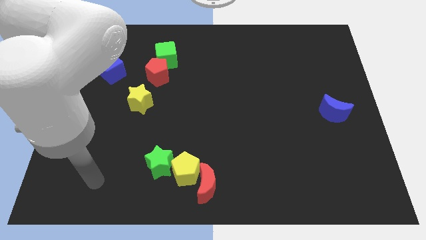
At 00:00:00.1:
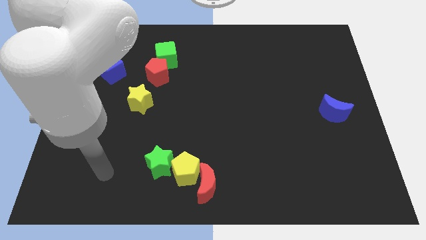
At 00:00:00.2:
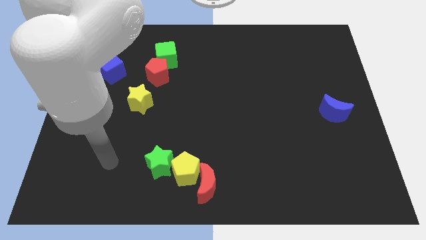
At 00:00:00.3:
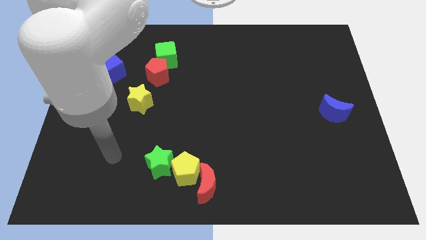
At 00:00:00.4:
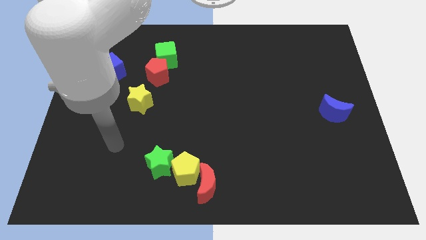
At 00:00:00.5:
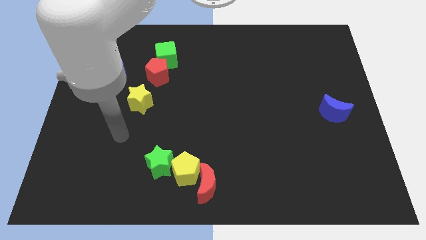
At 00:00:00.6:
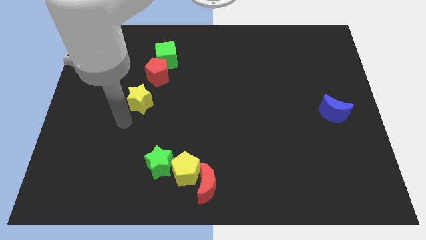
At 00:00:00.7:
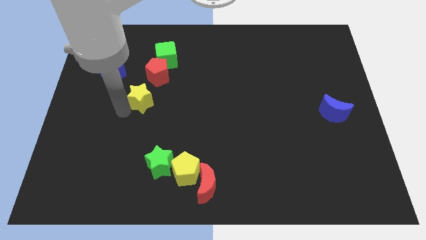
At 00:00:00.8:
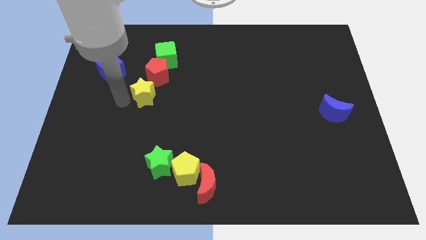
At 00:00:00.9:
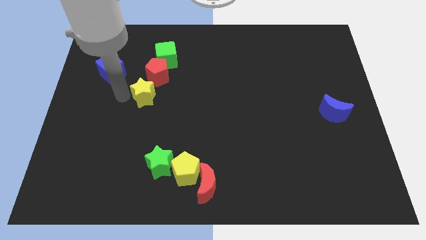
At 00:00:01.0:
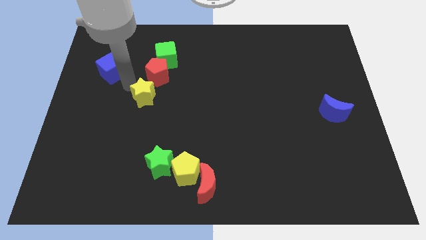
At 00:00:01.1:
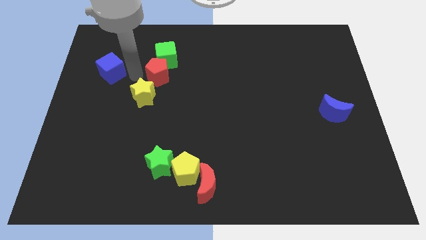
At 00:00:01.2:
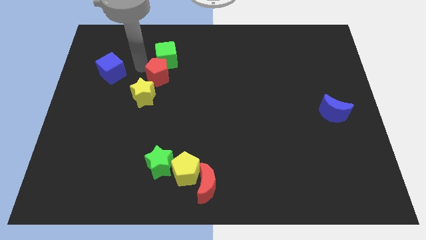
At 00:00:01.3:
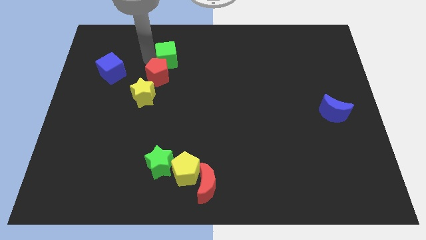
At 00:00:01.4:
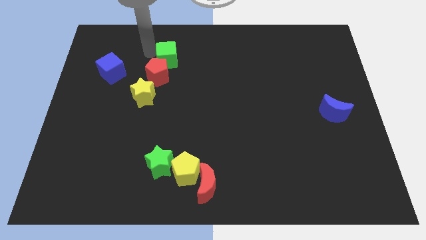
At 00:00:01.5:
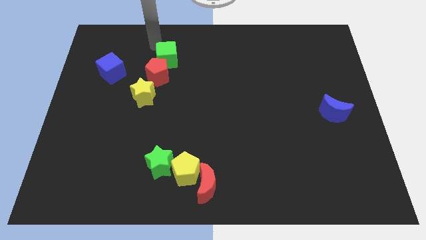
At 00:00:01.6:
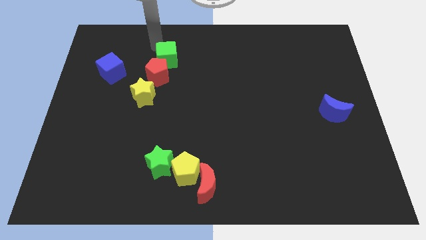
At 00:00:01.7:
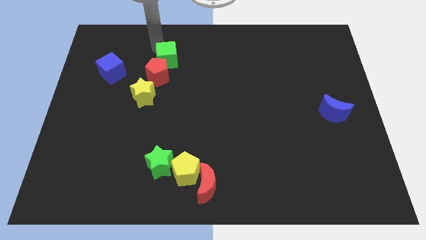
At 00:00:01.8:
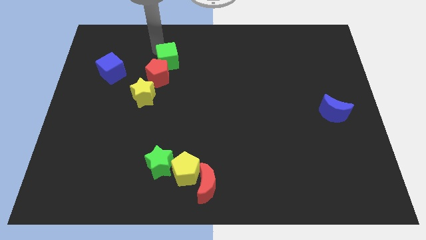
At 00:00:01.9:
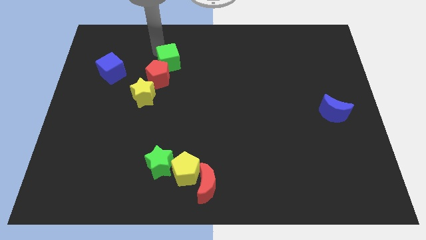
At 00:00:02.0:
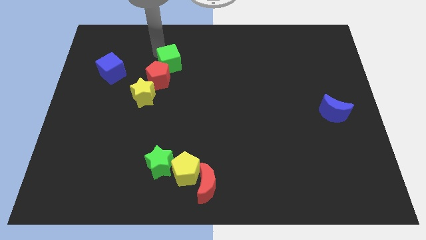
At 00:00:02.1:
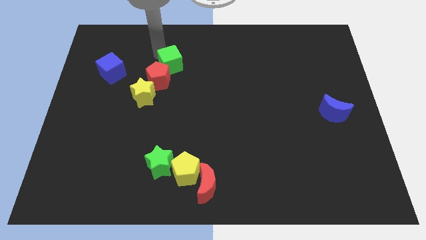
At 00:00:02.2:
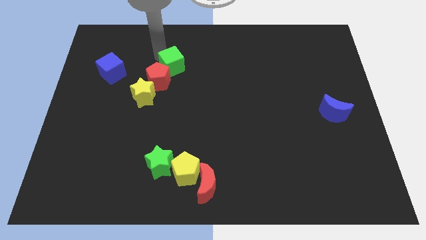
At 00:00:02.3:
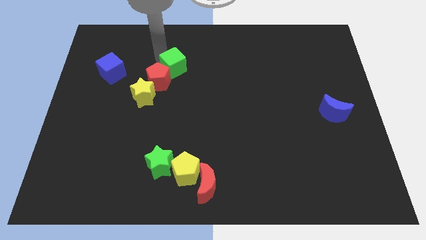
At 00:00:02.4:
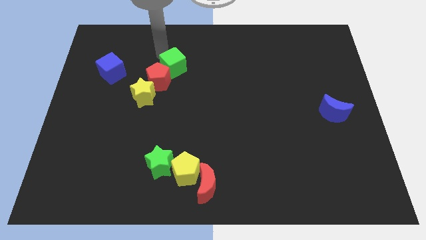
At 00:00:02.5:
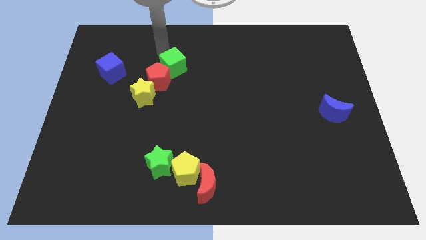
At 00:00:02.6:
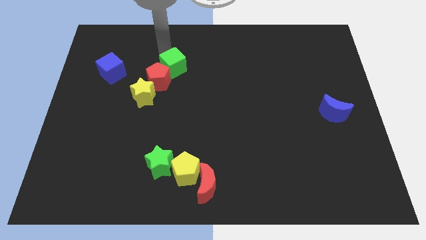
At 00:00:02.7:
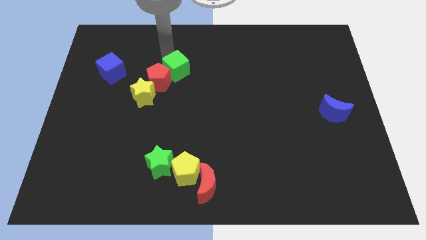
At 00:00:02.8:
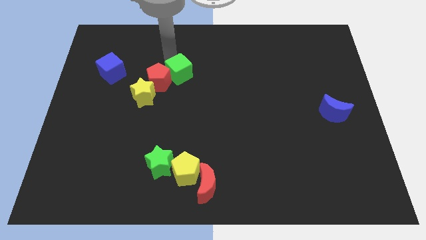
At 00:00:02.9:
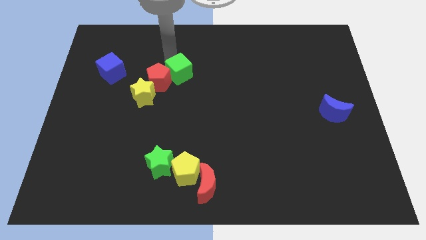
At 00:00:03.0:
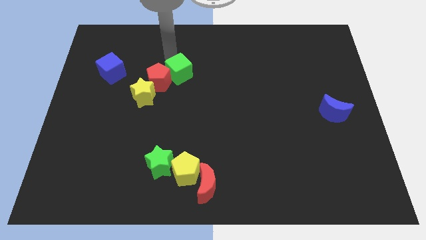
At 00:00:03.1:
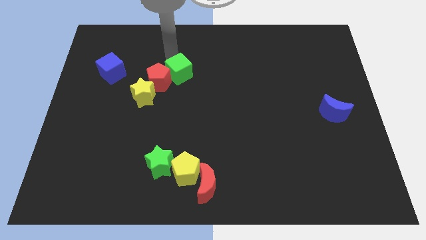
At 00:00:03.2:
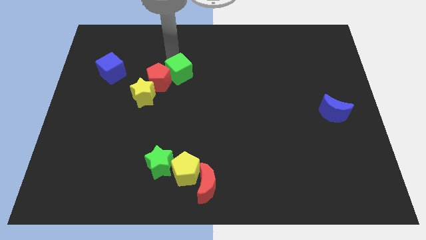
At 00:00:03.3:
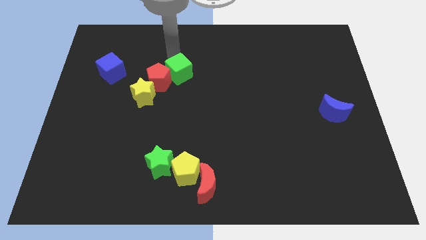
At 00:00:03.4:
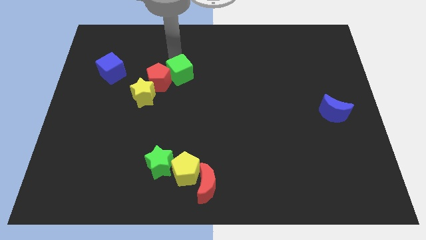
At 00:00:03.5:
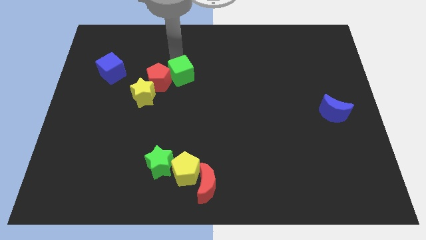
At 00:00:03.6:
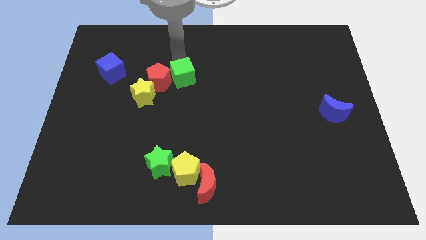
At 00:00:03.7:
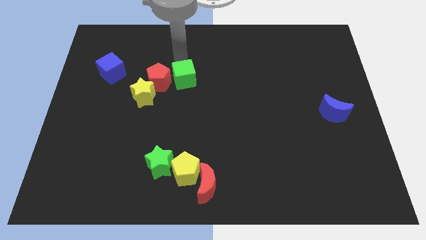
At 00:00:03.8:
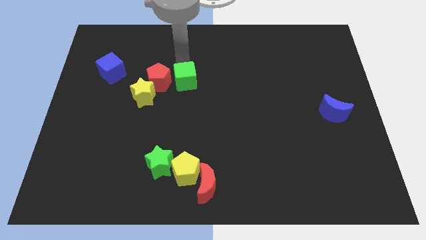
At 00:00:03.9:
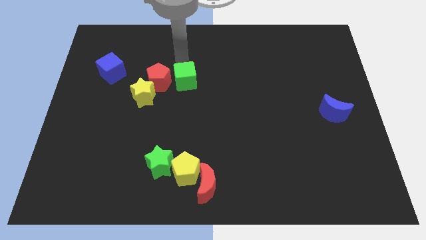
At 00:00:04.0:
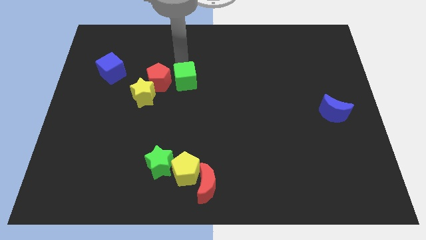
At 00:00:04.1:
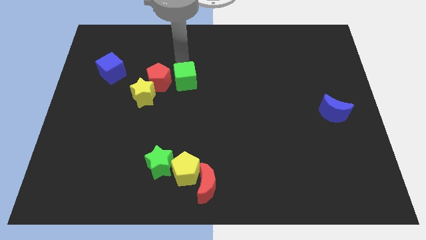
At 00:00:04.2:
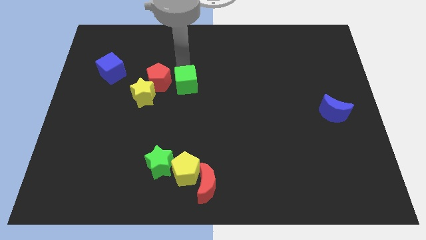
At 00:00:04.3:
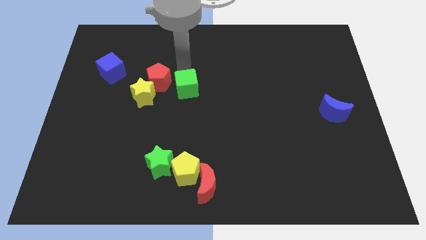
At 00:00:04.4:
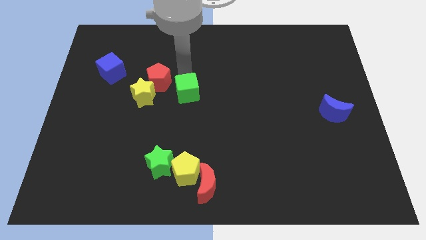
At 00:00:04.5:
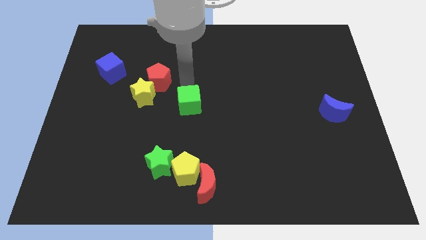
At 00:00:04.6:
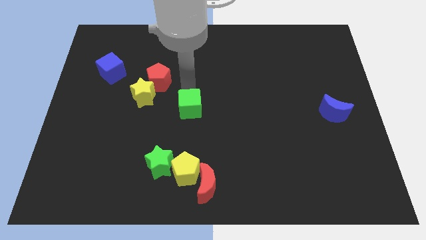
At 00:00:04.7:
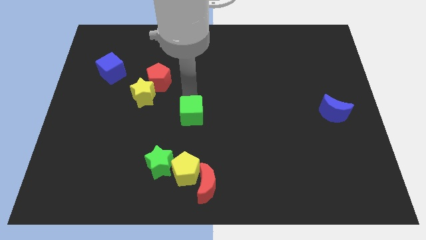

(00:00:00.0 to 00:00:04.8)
move the green cube to the top of the yellow pentagon

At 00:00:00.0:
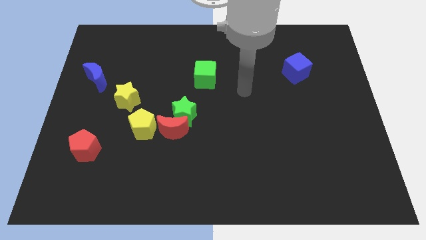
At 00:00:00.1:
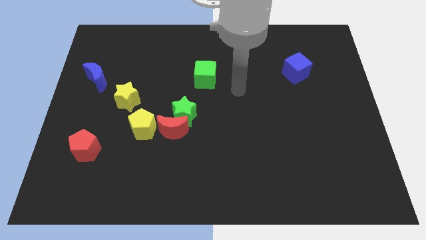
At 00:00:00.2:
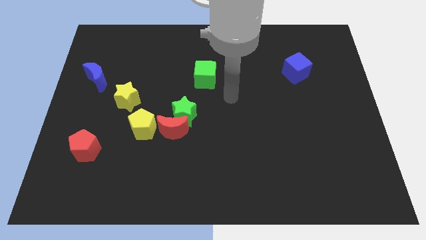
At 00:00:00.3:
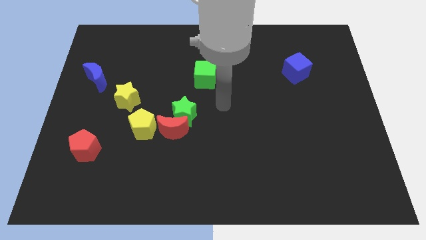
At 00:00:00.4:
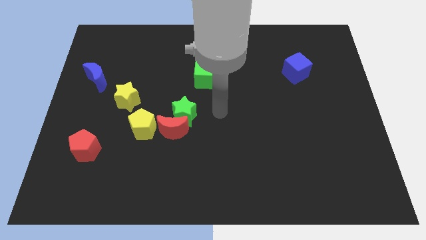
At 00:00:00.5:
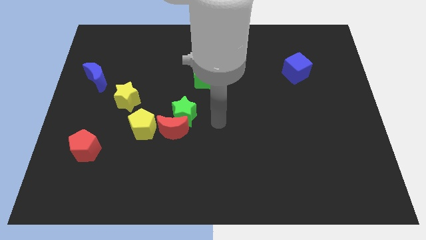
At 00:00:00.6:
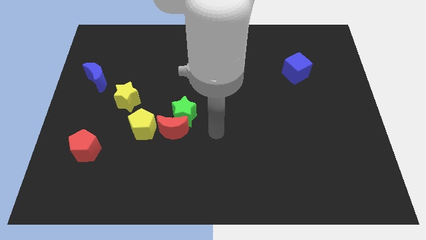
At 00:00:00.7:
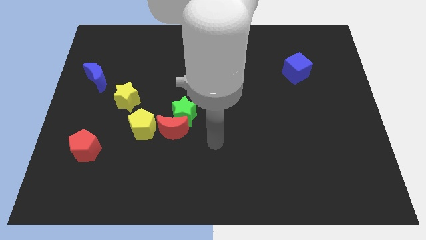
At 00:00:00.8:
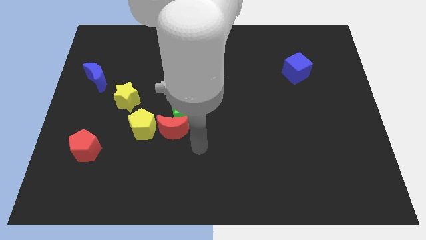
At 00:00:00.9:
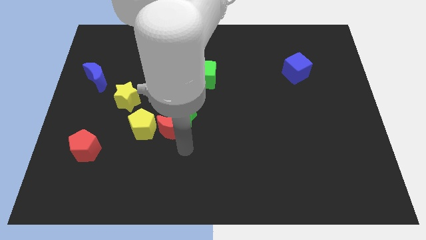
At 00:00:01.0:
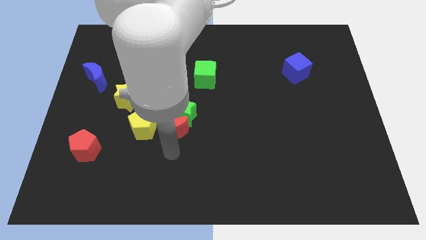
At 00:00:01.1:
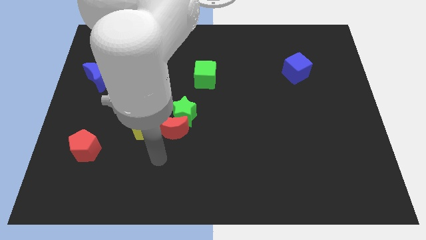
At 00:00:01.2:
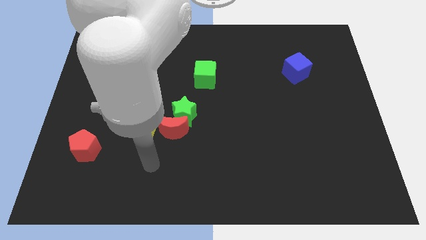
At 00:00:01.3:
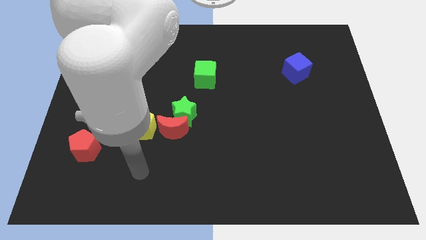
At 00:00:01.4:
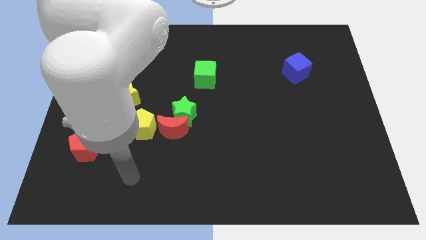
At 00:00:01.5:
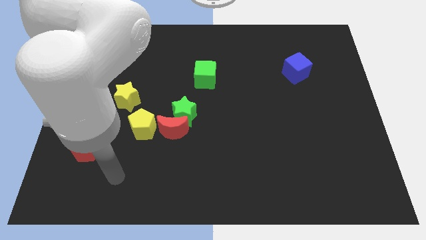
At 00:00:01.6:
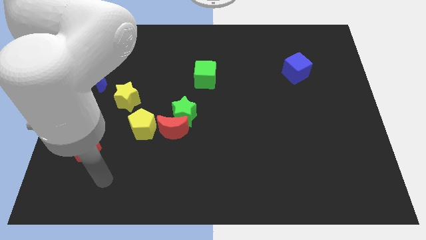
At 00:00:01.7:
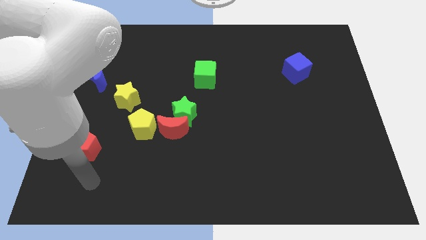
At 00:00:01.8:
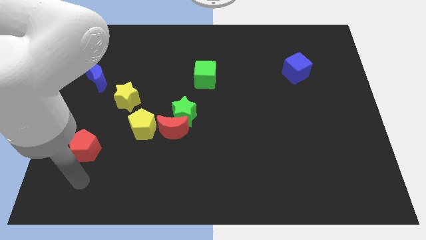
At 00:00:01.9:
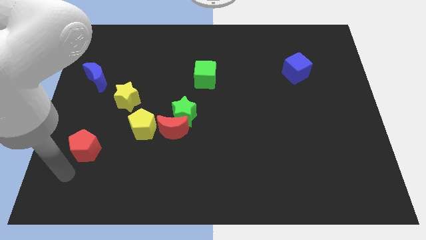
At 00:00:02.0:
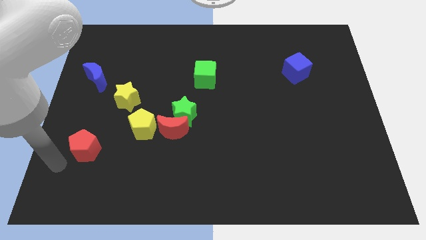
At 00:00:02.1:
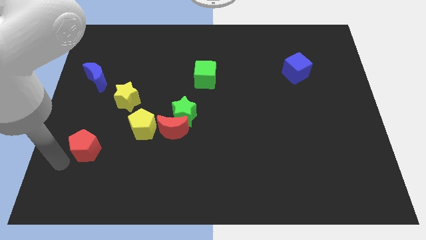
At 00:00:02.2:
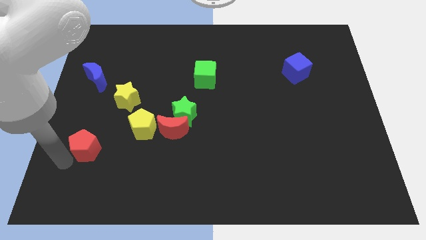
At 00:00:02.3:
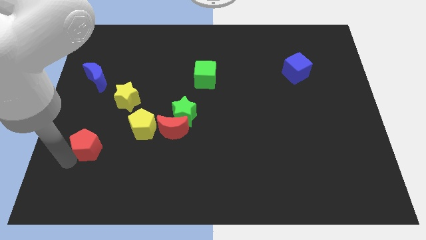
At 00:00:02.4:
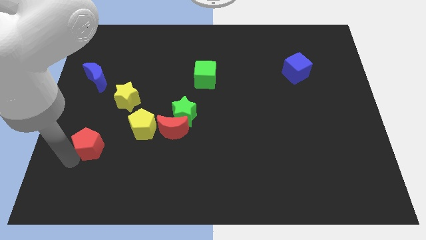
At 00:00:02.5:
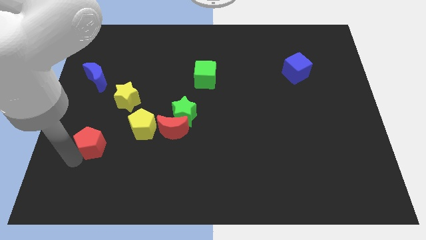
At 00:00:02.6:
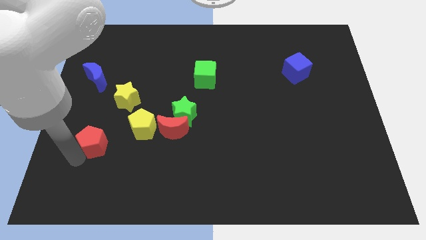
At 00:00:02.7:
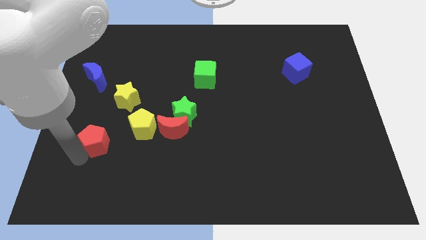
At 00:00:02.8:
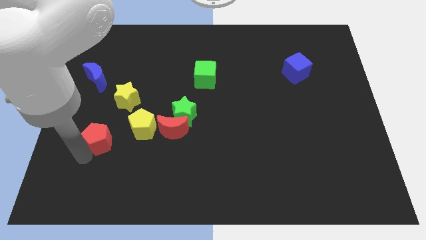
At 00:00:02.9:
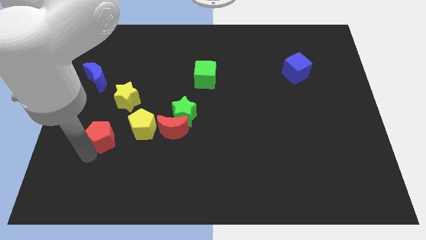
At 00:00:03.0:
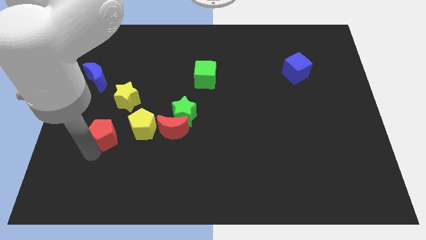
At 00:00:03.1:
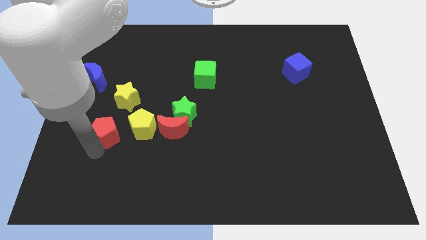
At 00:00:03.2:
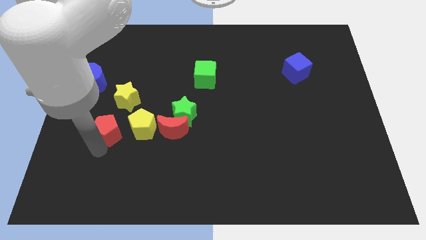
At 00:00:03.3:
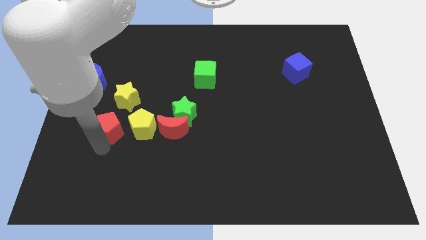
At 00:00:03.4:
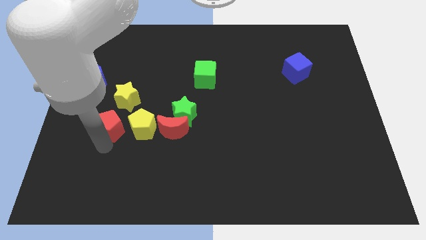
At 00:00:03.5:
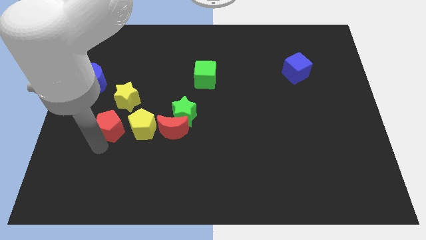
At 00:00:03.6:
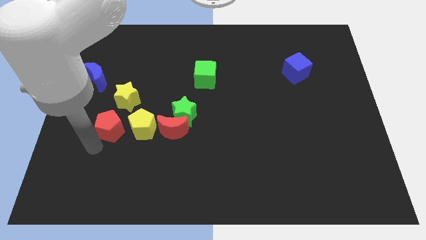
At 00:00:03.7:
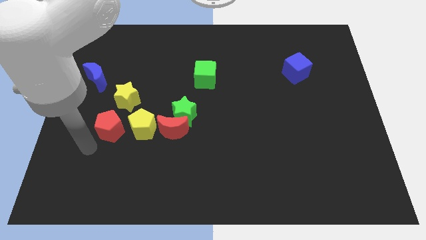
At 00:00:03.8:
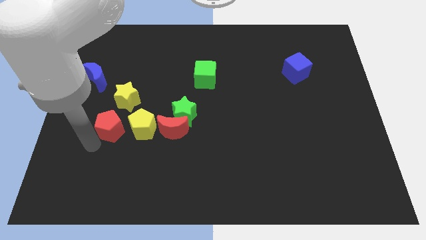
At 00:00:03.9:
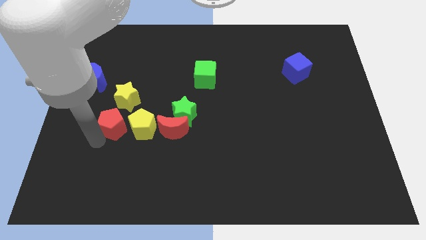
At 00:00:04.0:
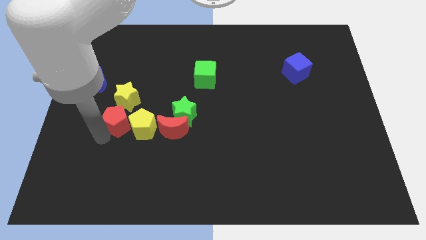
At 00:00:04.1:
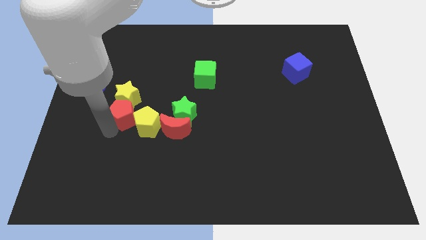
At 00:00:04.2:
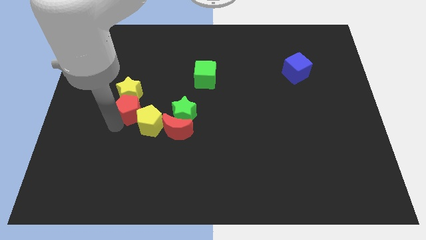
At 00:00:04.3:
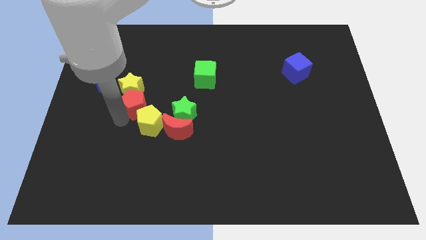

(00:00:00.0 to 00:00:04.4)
push the red pentagon above the yellow pentagon
